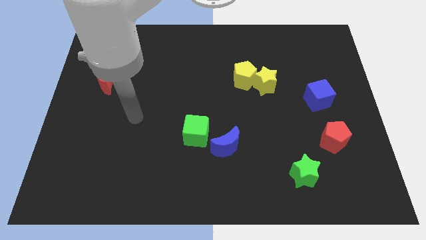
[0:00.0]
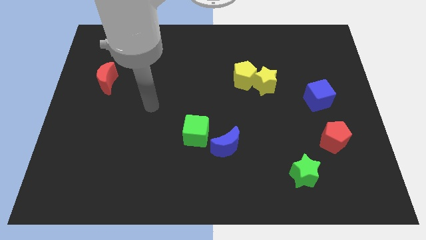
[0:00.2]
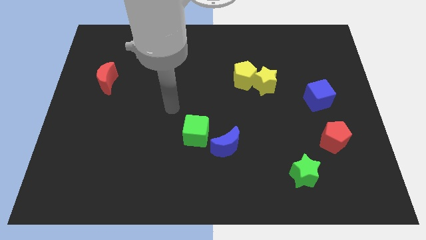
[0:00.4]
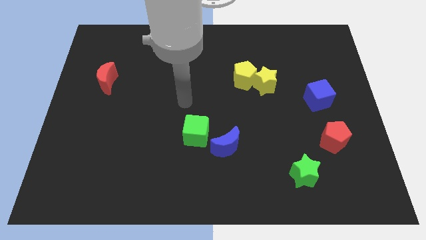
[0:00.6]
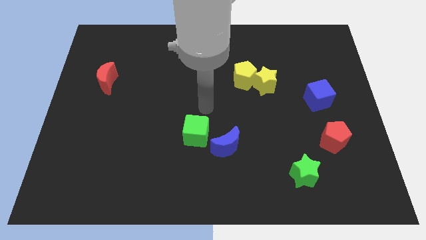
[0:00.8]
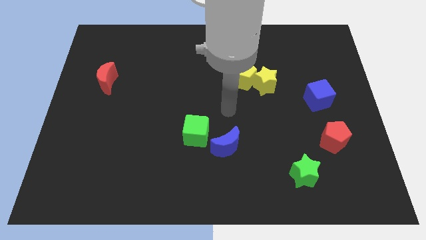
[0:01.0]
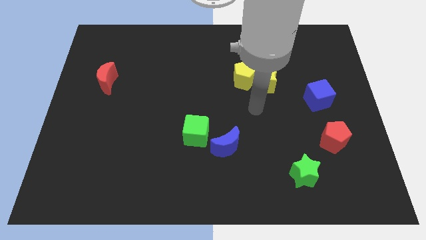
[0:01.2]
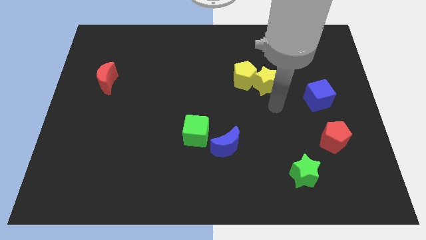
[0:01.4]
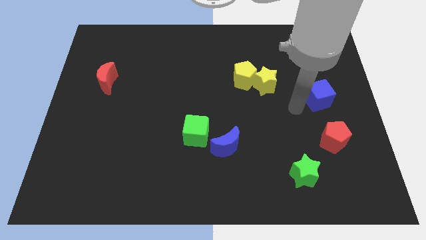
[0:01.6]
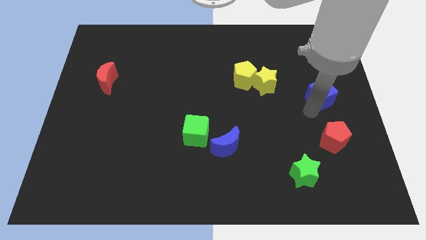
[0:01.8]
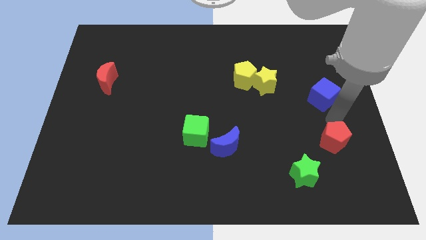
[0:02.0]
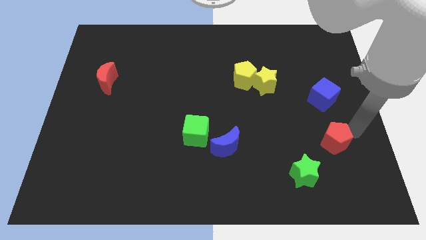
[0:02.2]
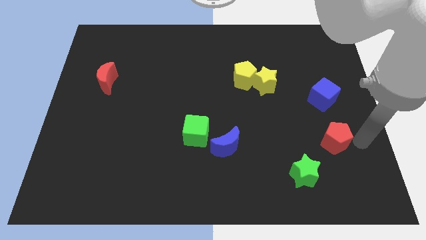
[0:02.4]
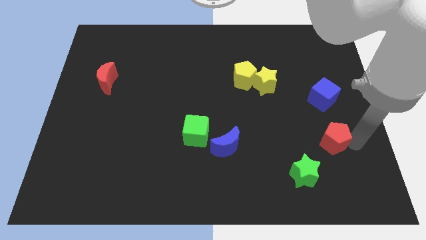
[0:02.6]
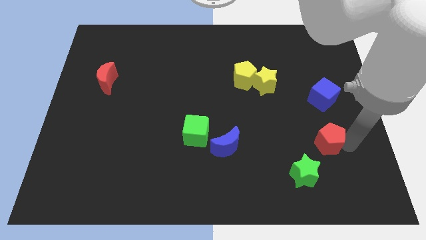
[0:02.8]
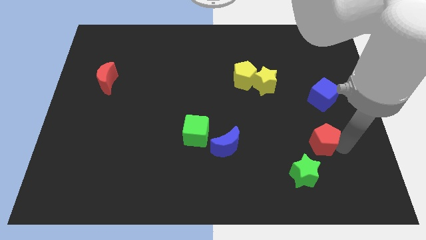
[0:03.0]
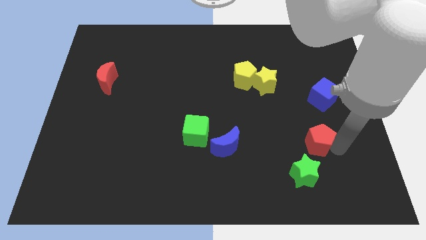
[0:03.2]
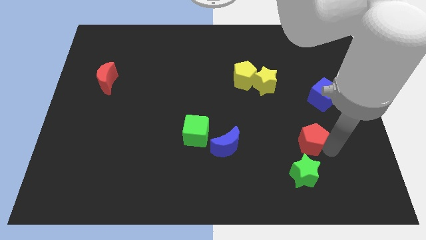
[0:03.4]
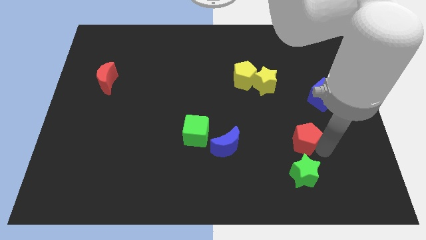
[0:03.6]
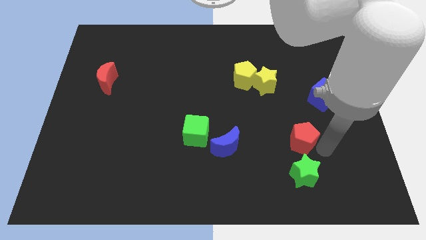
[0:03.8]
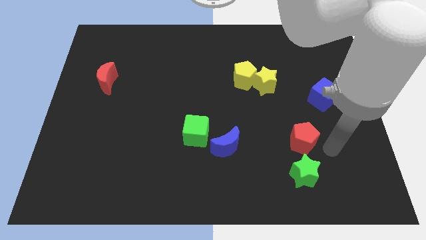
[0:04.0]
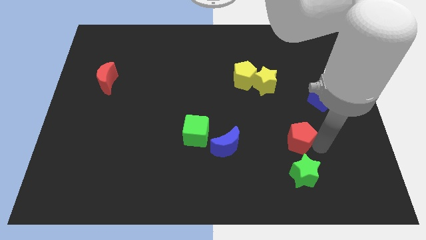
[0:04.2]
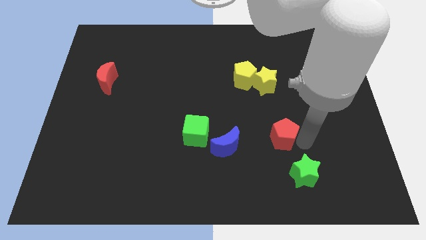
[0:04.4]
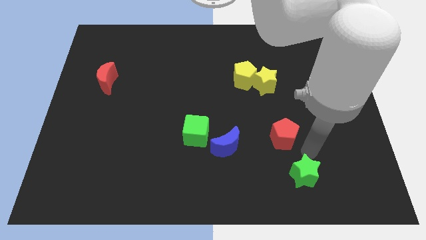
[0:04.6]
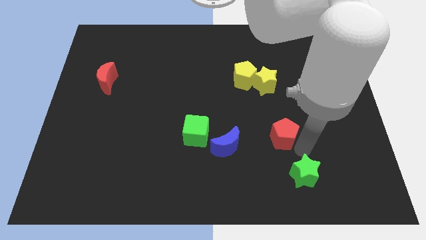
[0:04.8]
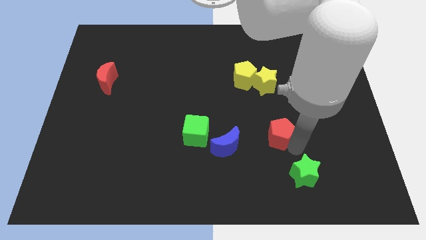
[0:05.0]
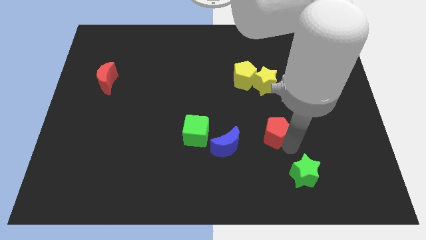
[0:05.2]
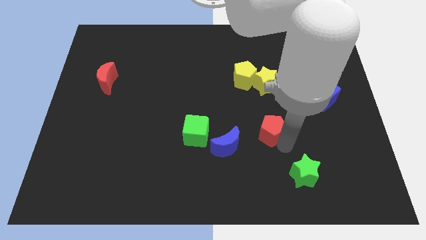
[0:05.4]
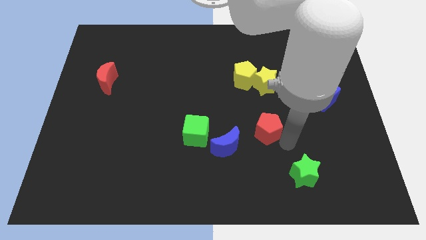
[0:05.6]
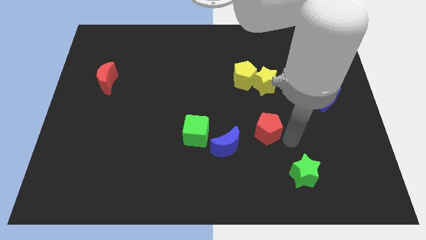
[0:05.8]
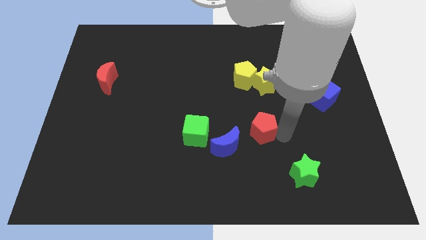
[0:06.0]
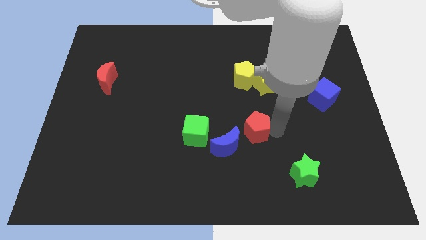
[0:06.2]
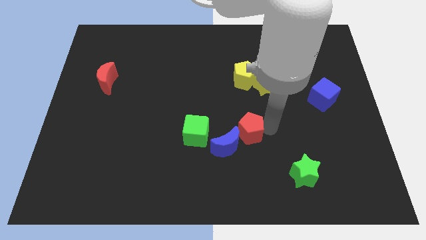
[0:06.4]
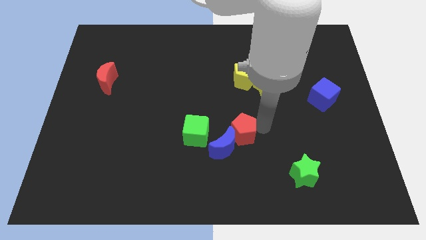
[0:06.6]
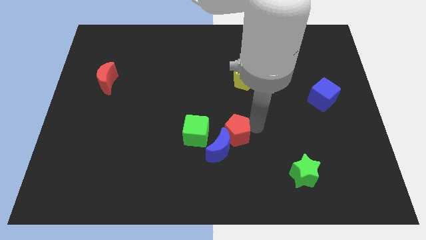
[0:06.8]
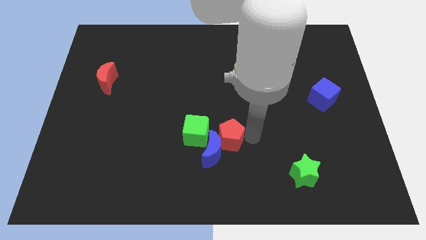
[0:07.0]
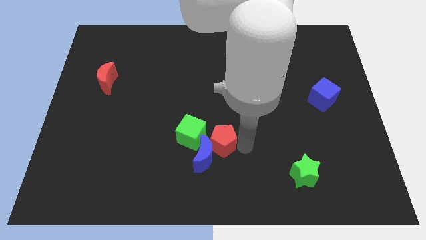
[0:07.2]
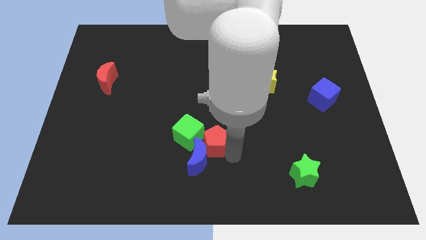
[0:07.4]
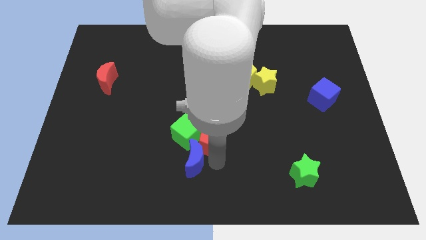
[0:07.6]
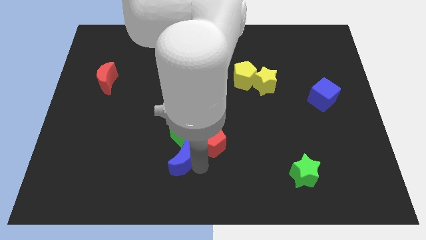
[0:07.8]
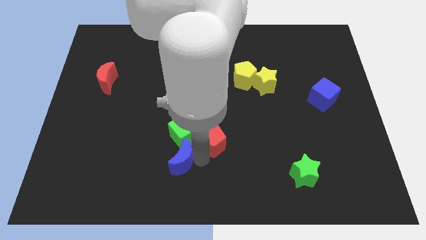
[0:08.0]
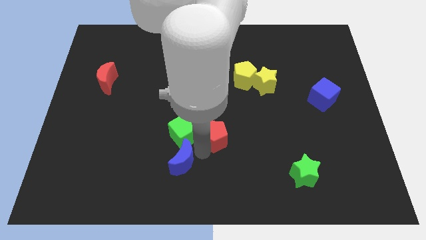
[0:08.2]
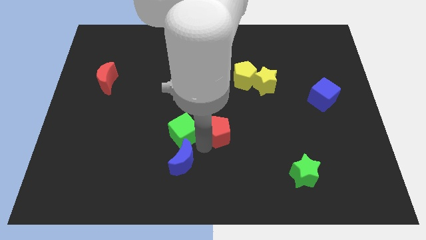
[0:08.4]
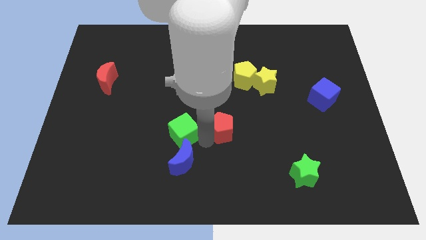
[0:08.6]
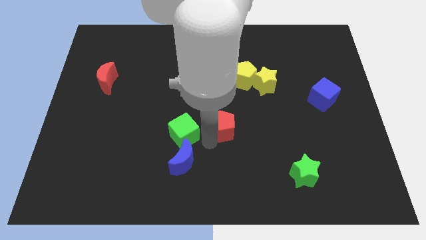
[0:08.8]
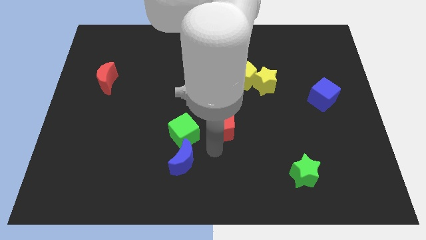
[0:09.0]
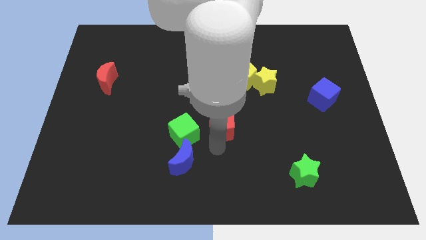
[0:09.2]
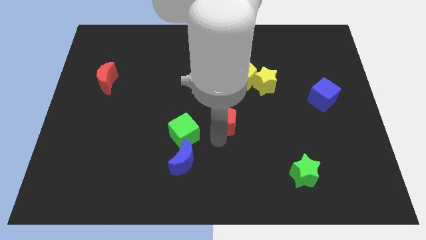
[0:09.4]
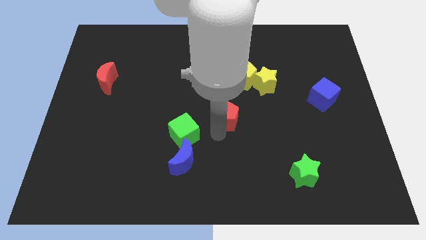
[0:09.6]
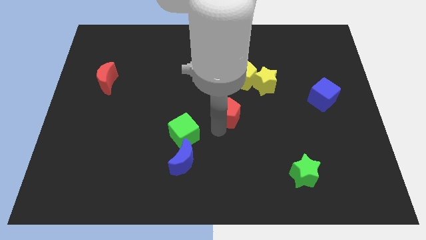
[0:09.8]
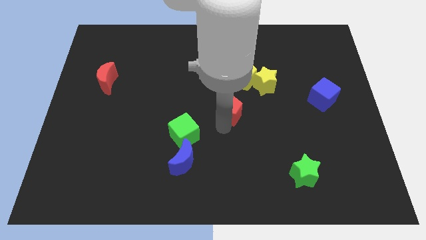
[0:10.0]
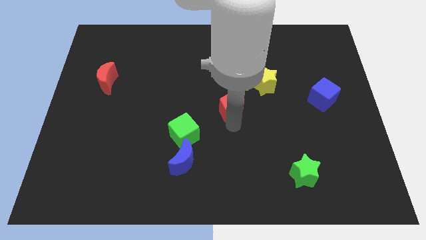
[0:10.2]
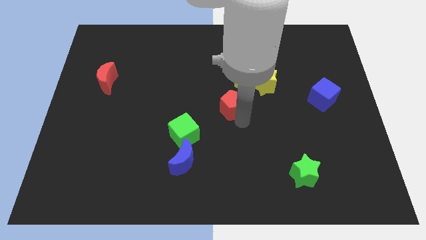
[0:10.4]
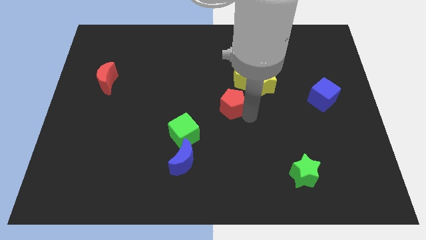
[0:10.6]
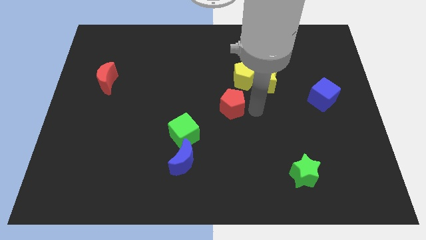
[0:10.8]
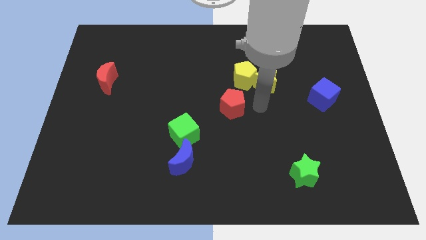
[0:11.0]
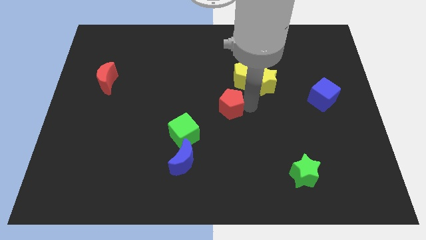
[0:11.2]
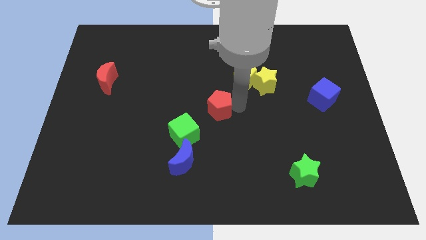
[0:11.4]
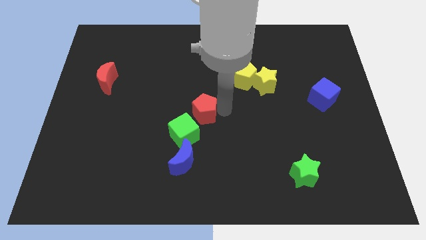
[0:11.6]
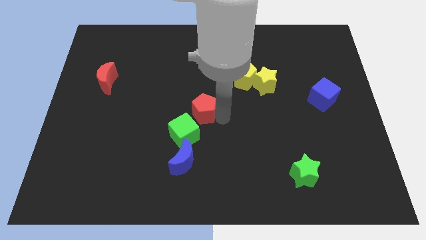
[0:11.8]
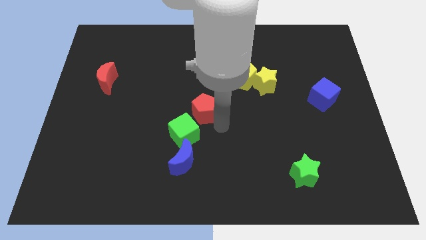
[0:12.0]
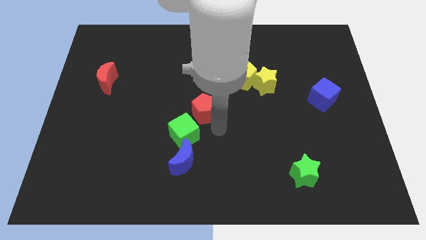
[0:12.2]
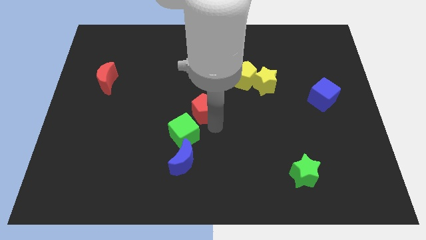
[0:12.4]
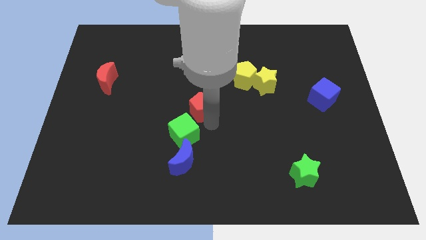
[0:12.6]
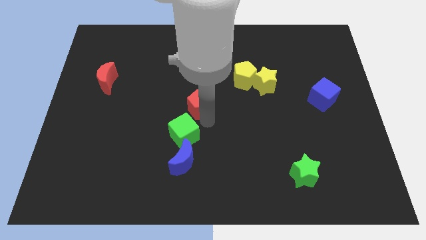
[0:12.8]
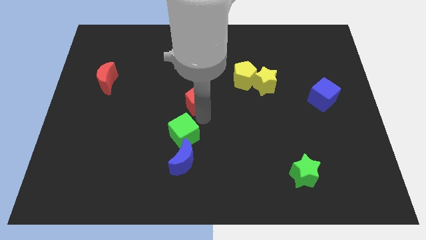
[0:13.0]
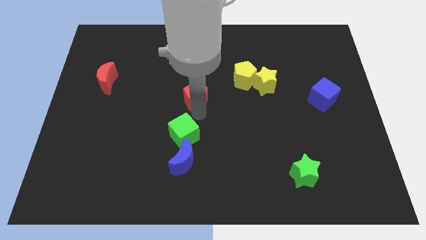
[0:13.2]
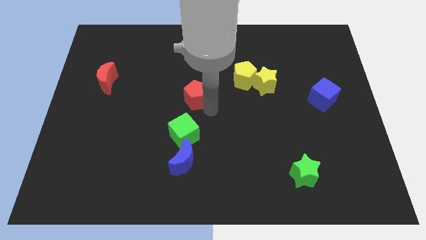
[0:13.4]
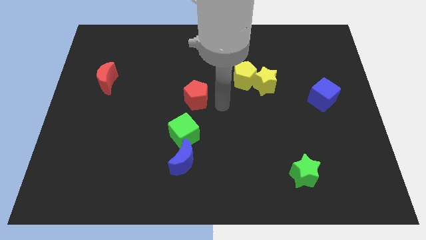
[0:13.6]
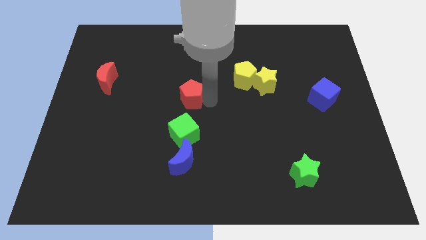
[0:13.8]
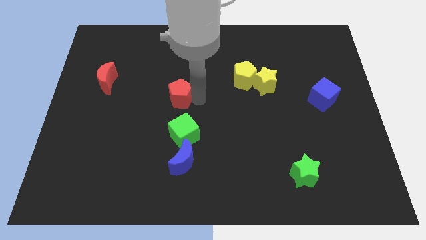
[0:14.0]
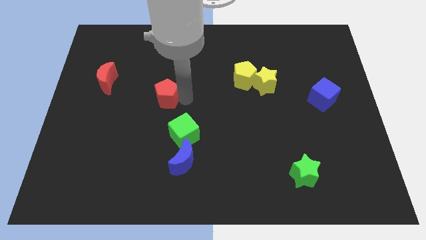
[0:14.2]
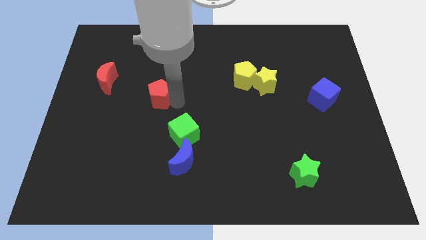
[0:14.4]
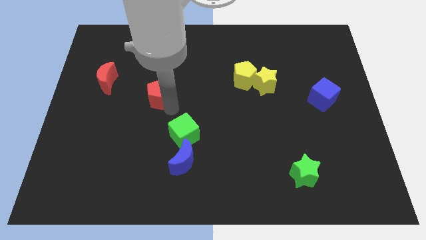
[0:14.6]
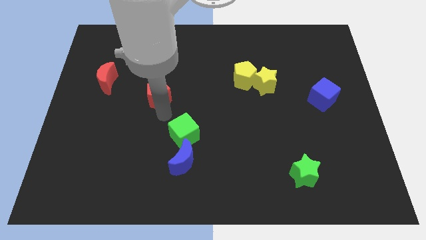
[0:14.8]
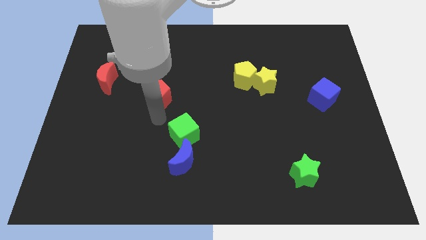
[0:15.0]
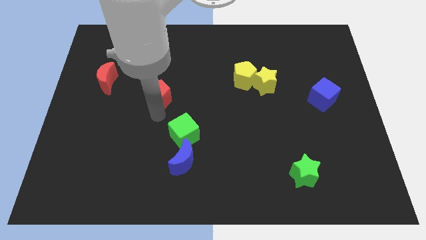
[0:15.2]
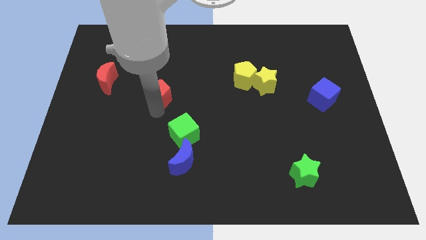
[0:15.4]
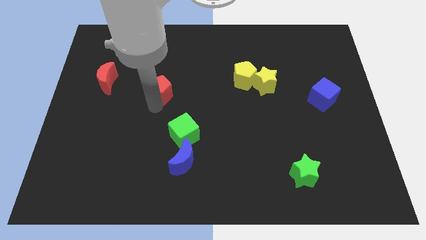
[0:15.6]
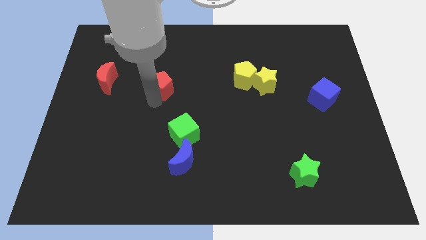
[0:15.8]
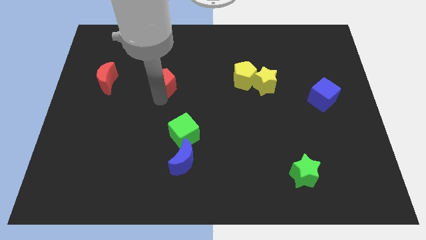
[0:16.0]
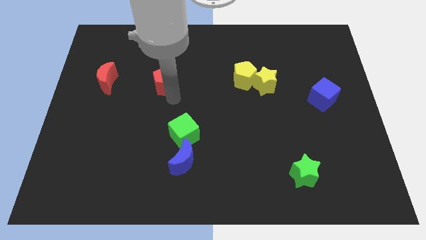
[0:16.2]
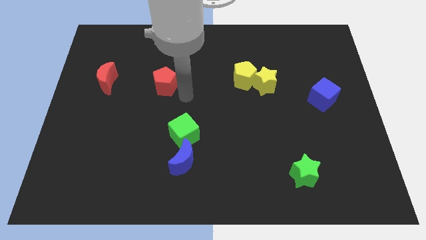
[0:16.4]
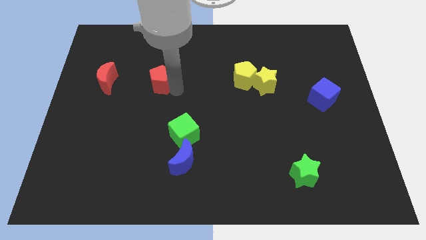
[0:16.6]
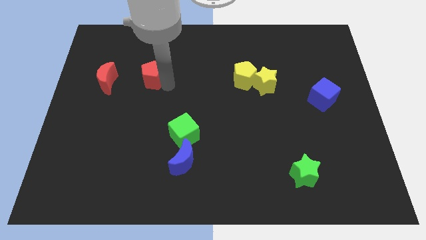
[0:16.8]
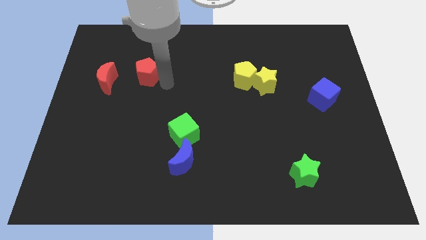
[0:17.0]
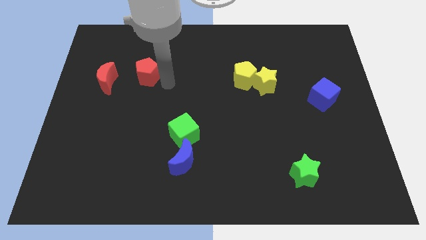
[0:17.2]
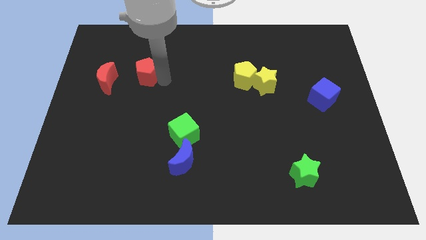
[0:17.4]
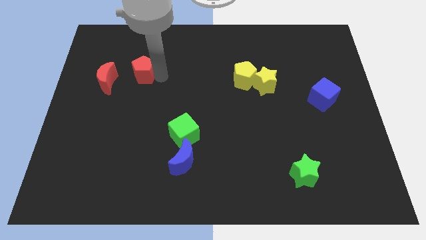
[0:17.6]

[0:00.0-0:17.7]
move the red pentagon to the top right side of the red moon
